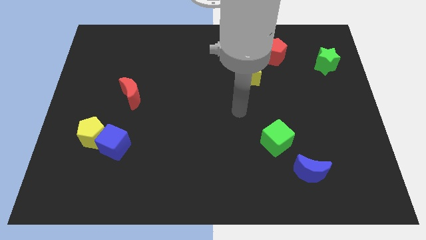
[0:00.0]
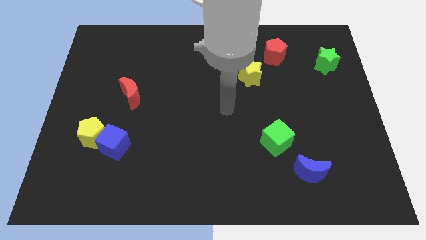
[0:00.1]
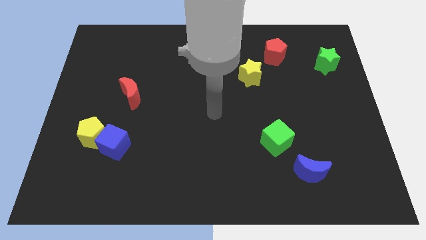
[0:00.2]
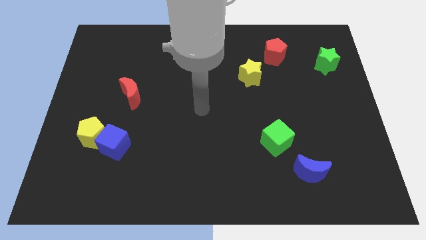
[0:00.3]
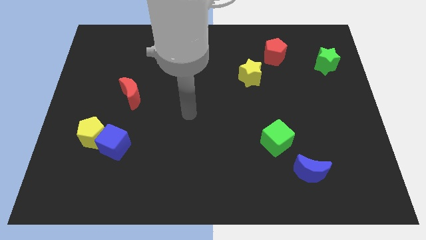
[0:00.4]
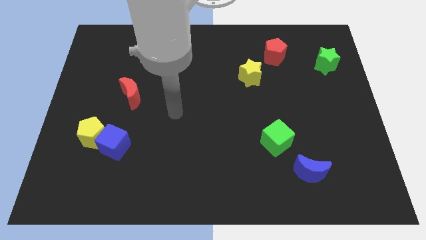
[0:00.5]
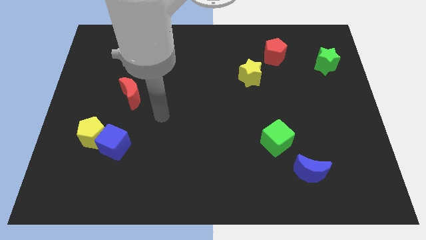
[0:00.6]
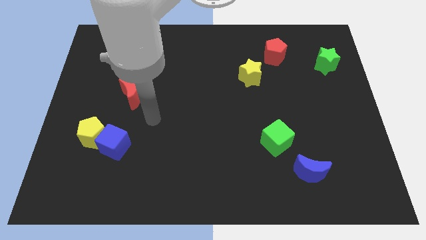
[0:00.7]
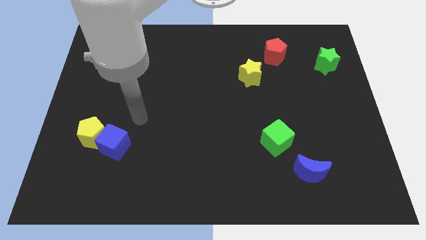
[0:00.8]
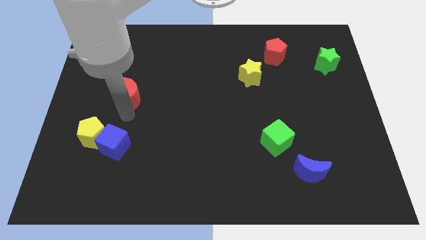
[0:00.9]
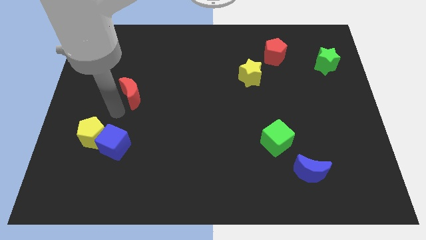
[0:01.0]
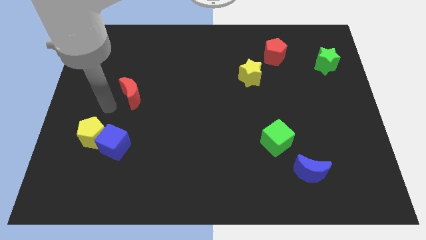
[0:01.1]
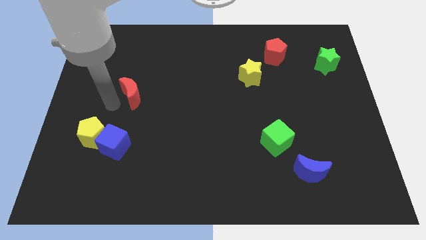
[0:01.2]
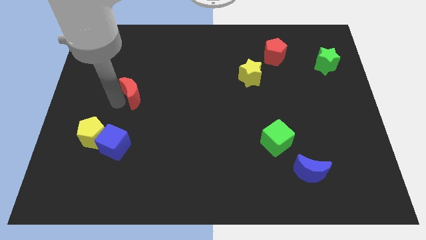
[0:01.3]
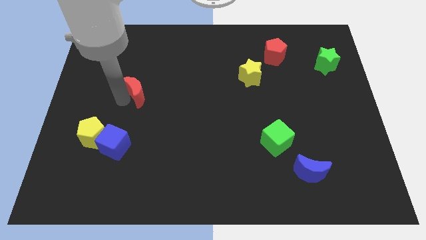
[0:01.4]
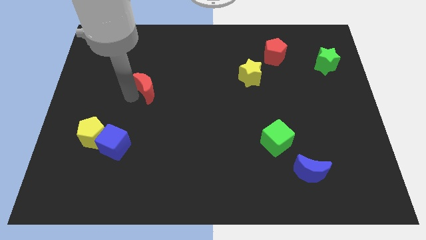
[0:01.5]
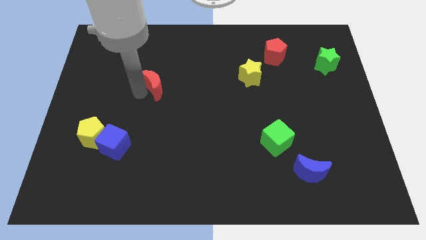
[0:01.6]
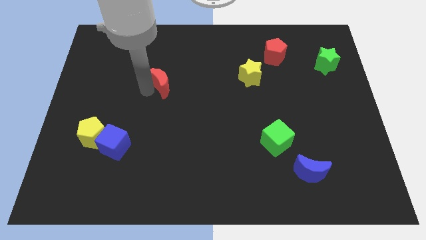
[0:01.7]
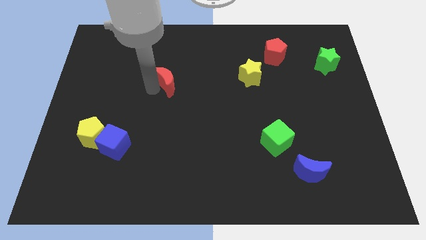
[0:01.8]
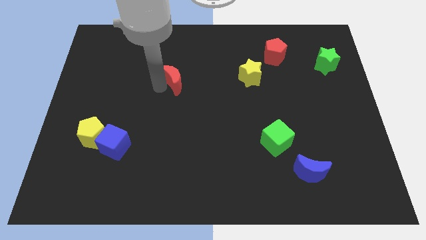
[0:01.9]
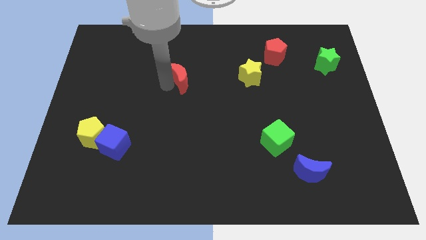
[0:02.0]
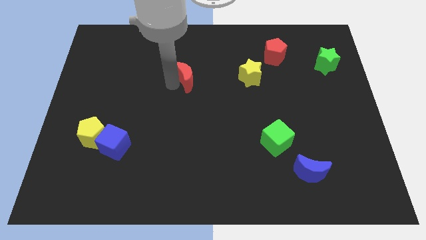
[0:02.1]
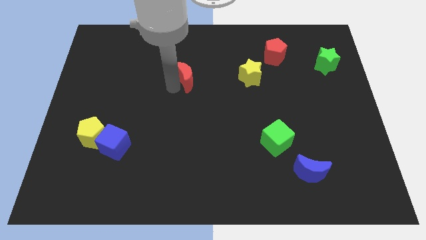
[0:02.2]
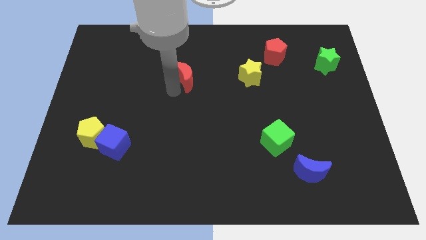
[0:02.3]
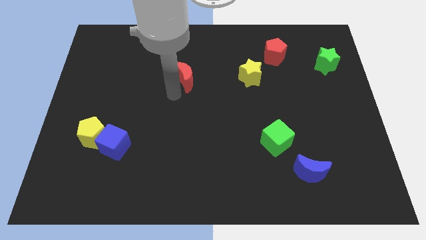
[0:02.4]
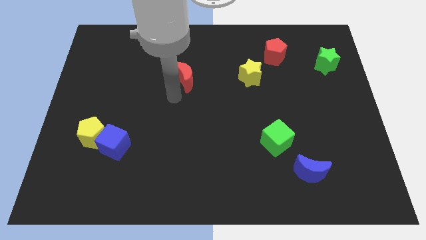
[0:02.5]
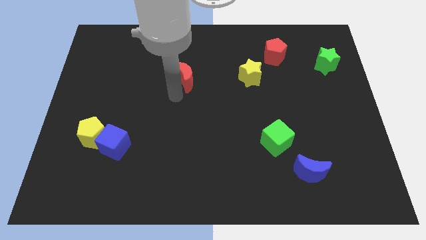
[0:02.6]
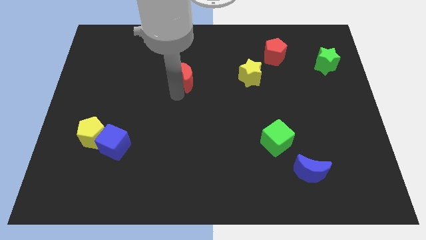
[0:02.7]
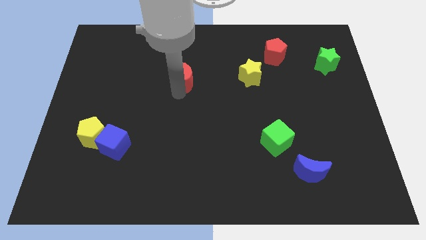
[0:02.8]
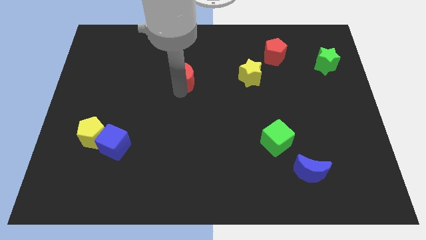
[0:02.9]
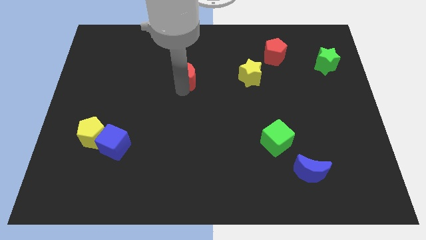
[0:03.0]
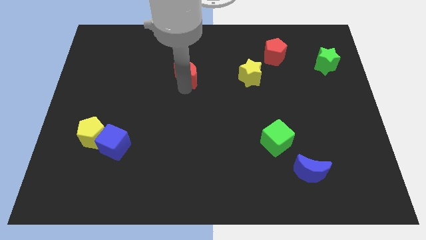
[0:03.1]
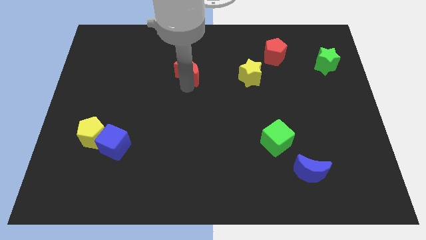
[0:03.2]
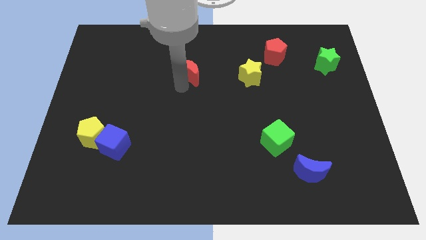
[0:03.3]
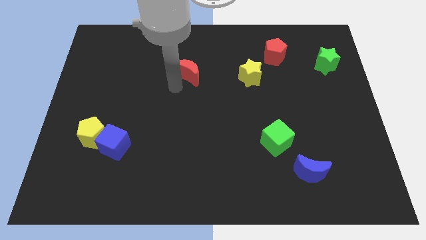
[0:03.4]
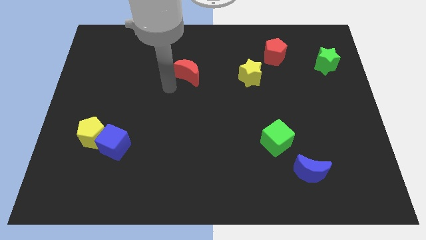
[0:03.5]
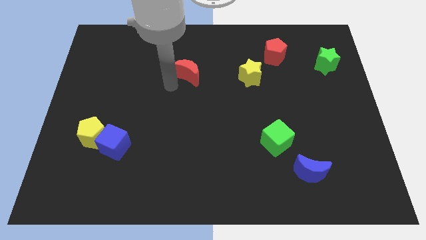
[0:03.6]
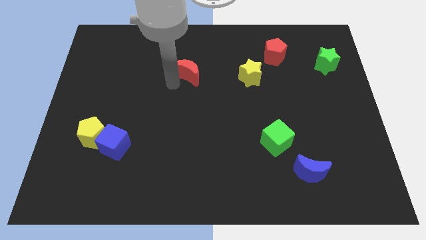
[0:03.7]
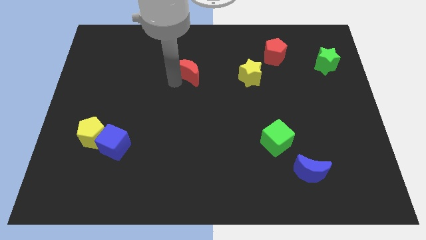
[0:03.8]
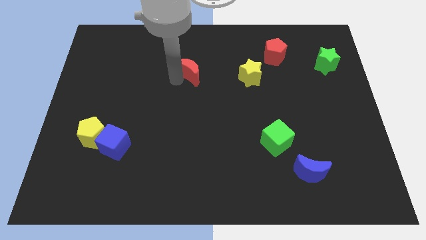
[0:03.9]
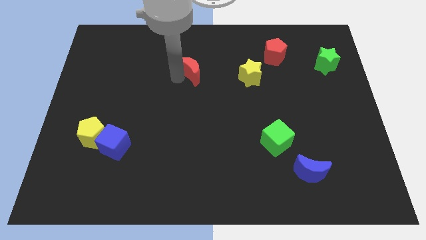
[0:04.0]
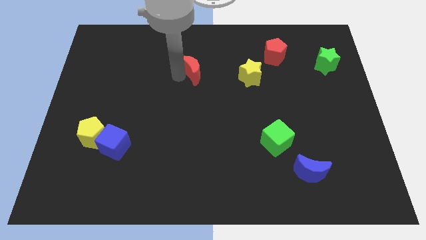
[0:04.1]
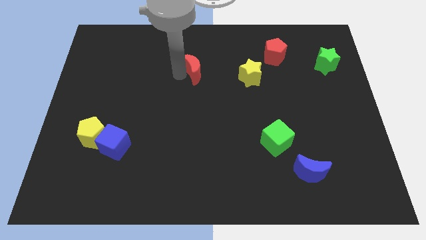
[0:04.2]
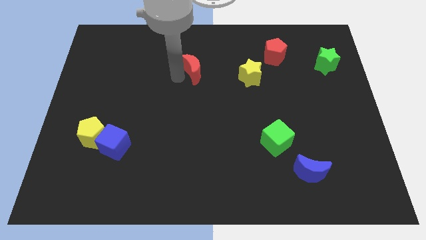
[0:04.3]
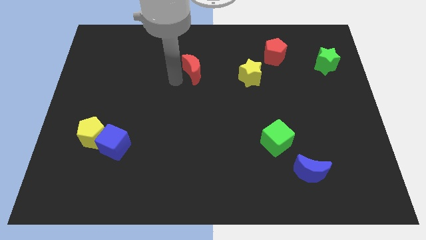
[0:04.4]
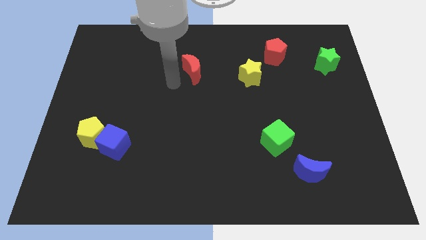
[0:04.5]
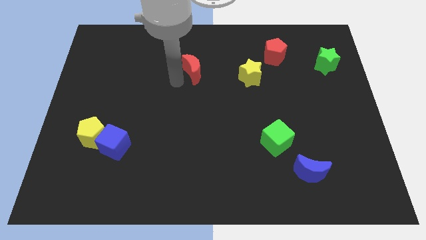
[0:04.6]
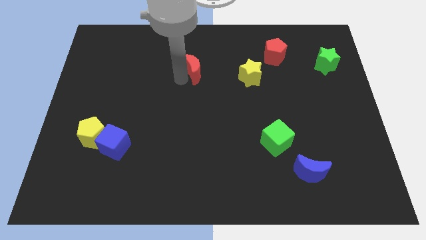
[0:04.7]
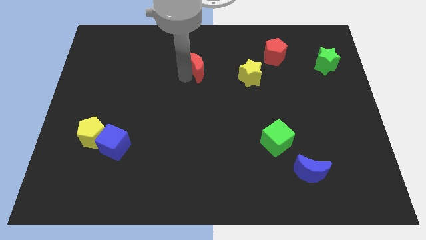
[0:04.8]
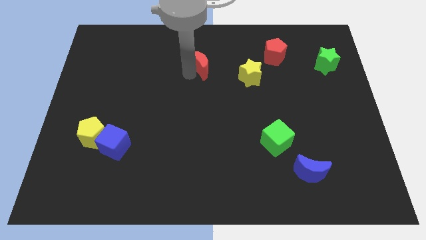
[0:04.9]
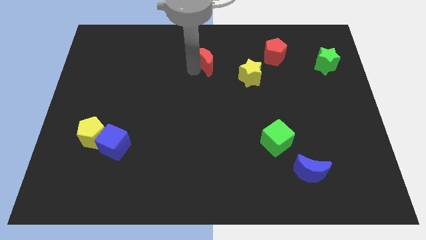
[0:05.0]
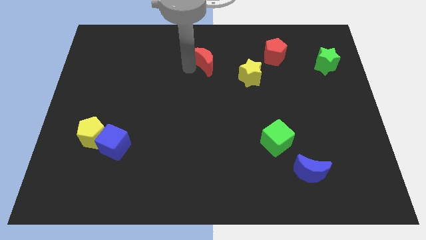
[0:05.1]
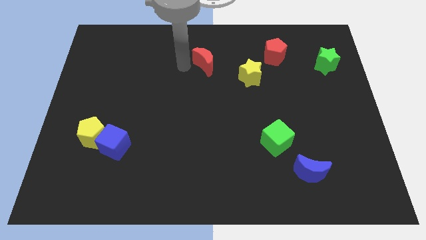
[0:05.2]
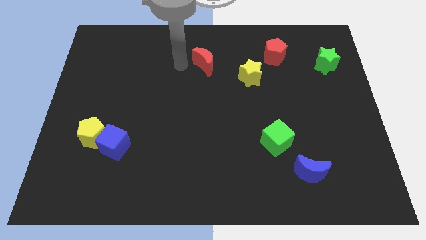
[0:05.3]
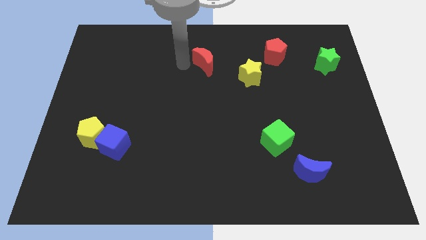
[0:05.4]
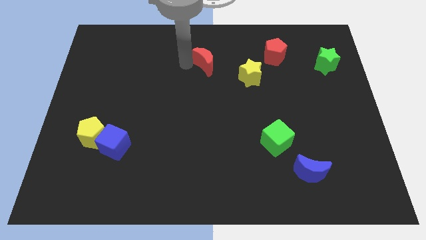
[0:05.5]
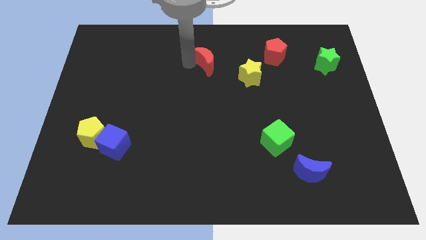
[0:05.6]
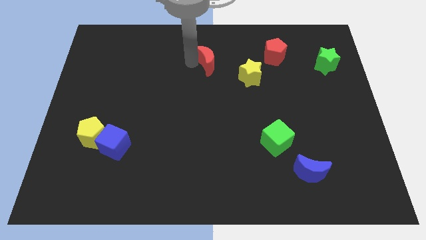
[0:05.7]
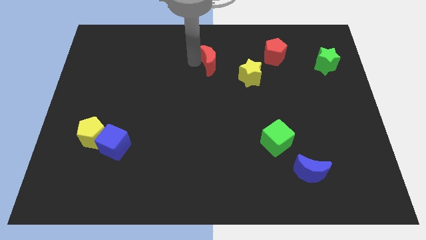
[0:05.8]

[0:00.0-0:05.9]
put the red moon to the top left side of the yellow star

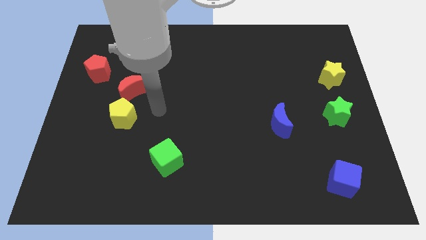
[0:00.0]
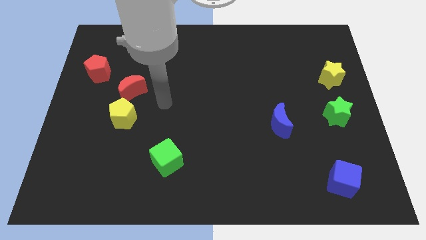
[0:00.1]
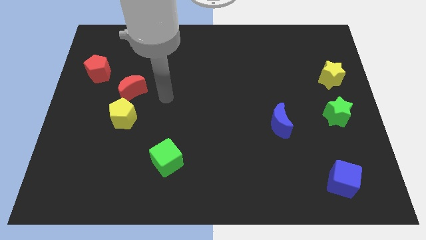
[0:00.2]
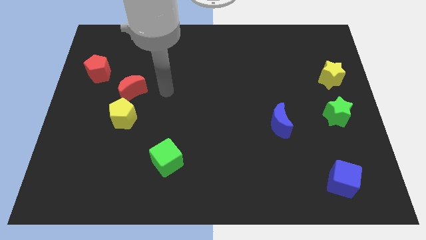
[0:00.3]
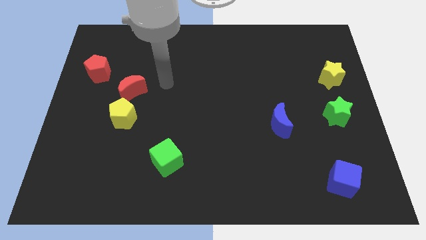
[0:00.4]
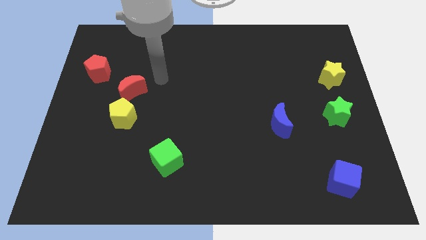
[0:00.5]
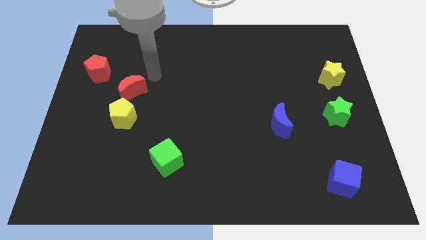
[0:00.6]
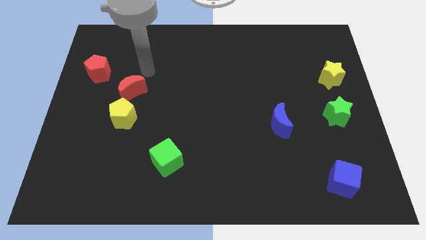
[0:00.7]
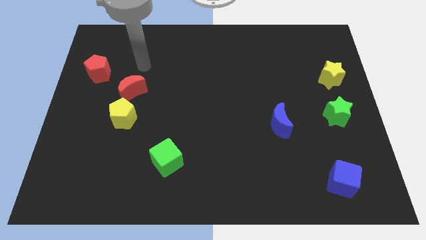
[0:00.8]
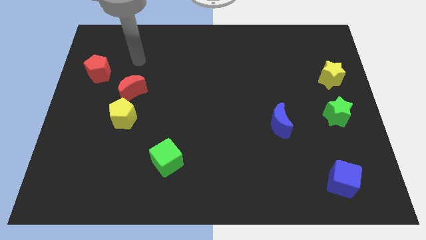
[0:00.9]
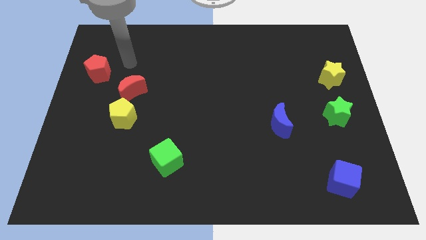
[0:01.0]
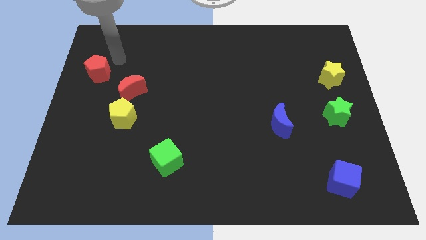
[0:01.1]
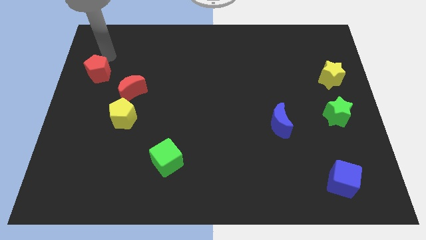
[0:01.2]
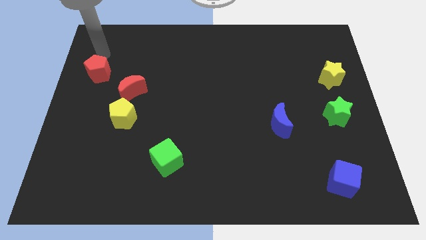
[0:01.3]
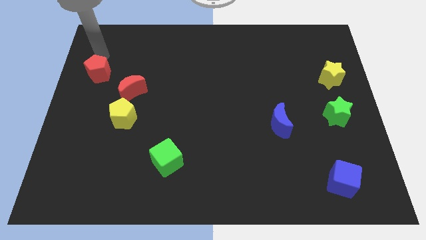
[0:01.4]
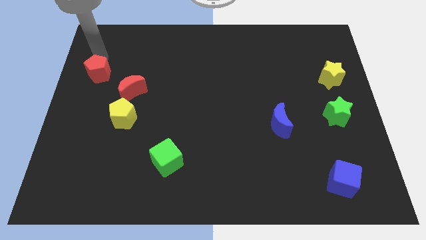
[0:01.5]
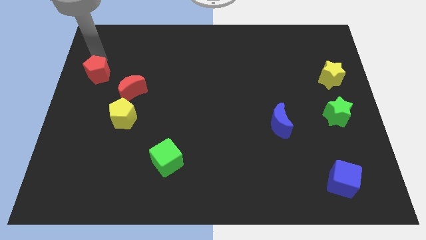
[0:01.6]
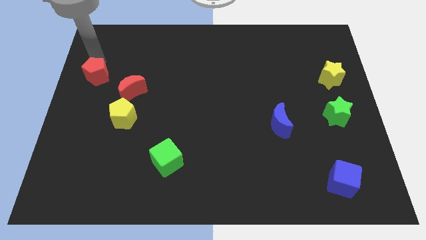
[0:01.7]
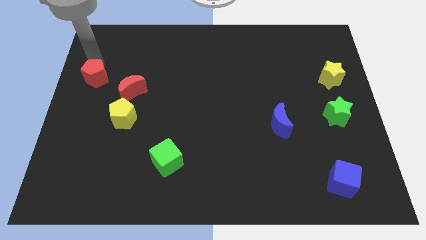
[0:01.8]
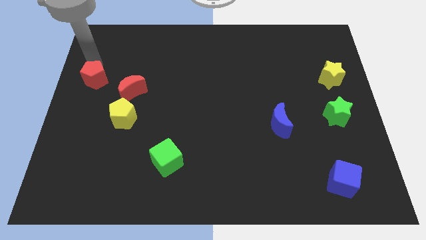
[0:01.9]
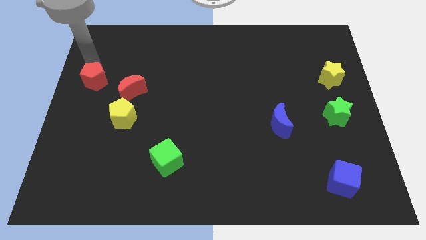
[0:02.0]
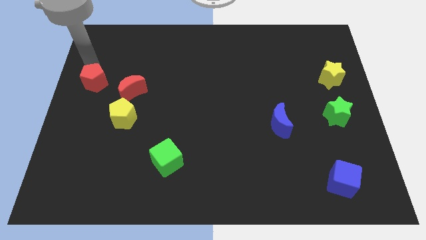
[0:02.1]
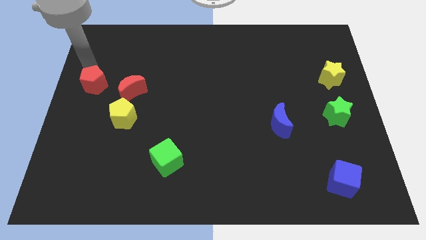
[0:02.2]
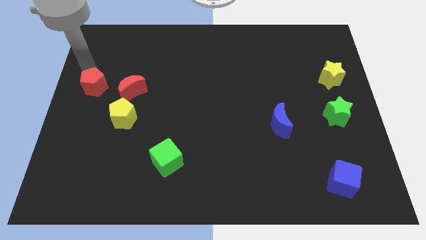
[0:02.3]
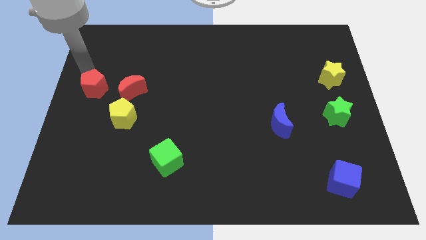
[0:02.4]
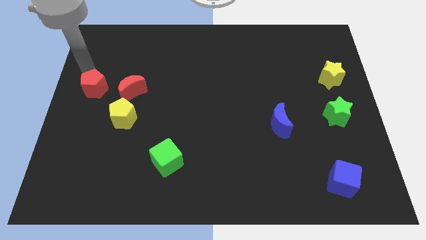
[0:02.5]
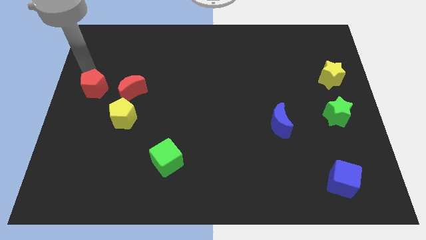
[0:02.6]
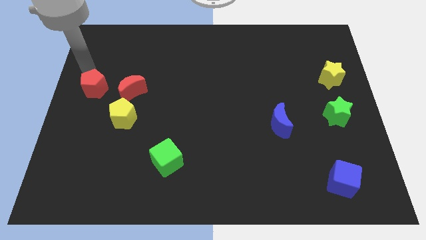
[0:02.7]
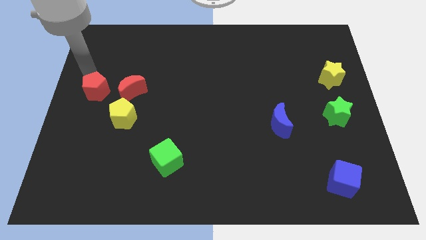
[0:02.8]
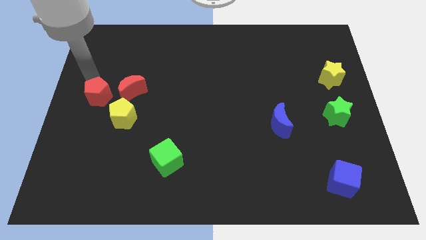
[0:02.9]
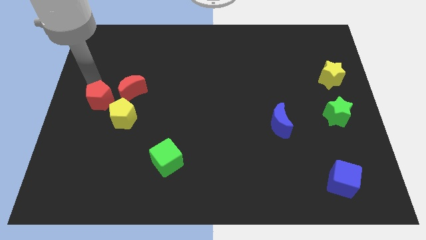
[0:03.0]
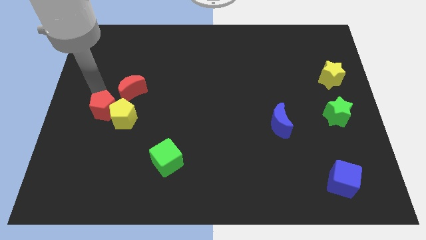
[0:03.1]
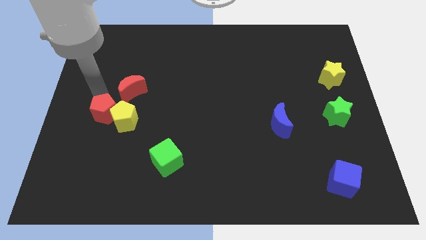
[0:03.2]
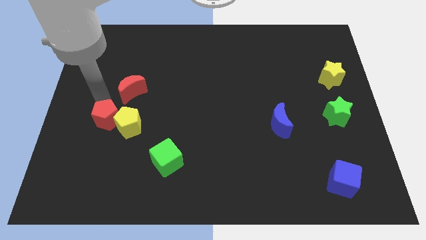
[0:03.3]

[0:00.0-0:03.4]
slide the red pentagon to the bottom side of the red moon
